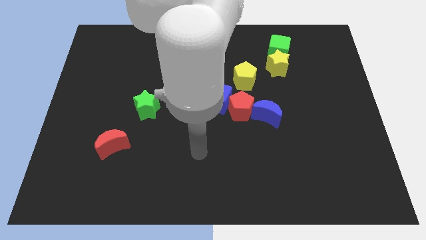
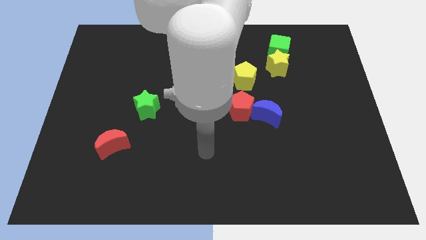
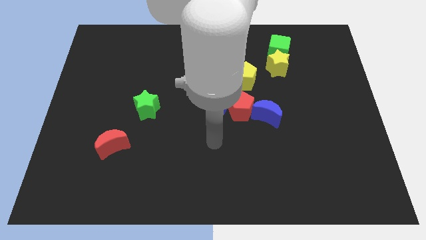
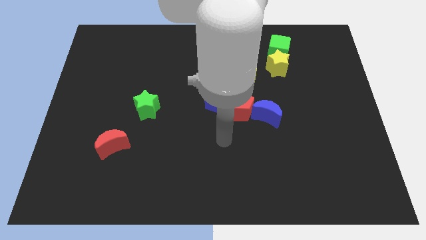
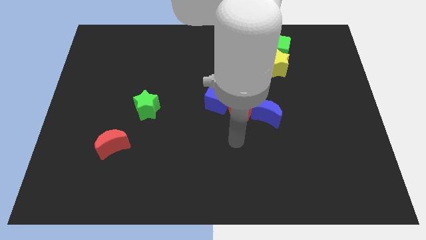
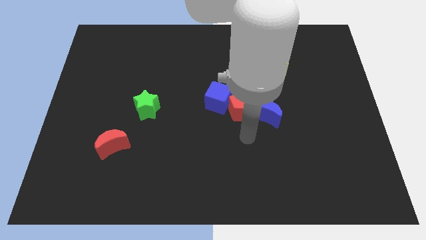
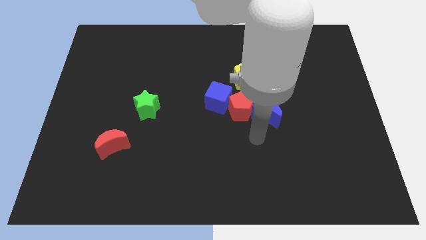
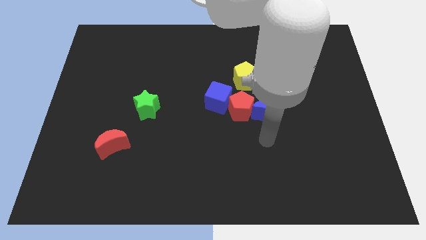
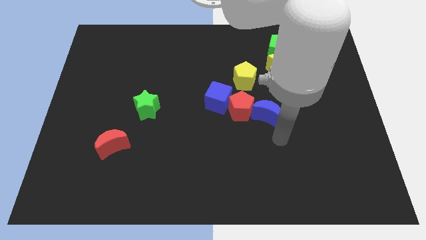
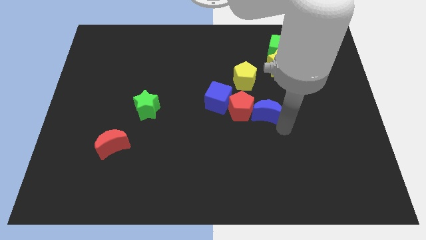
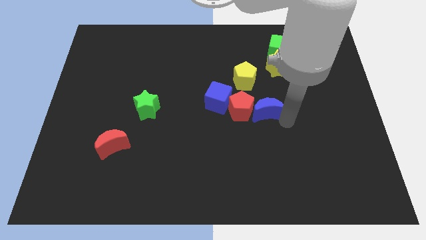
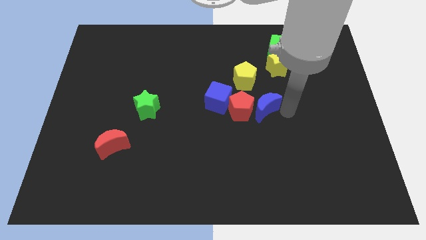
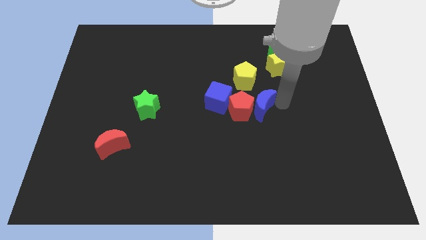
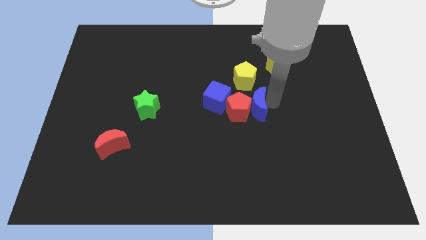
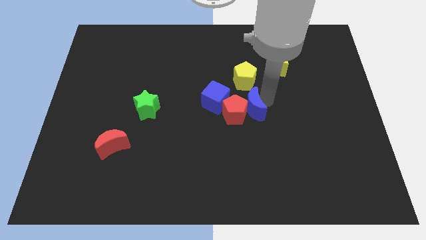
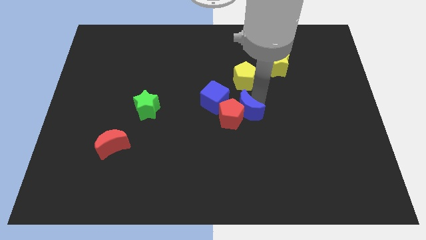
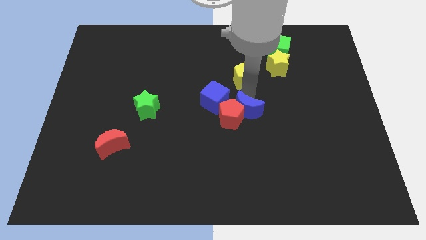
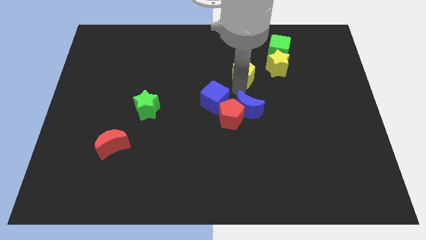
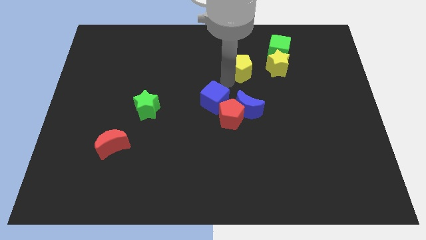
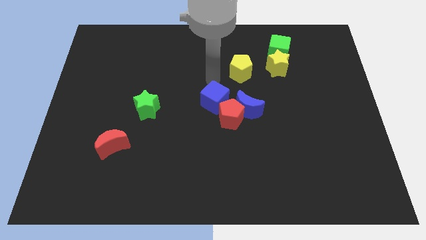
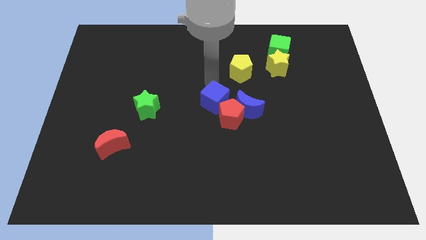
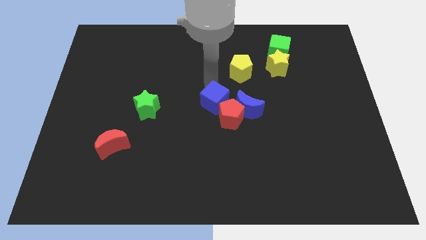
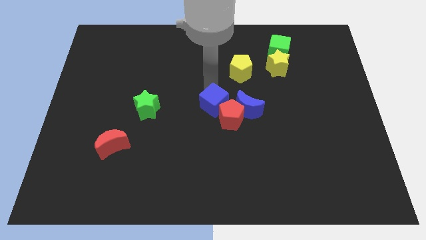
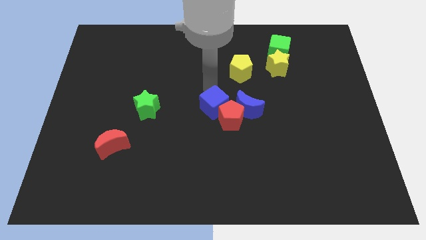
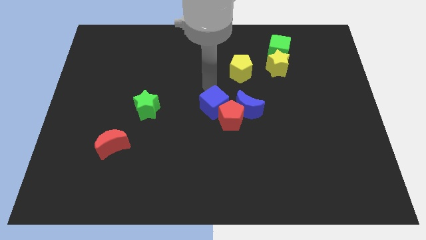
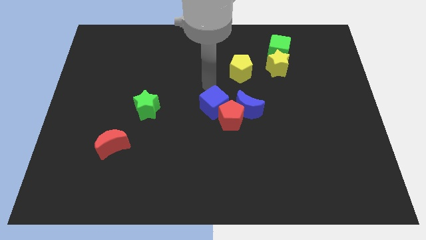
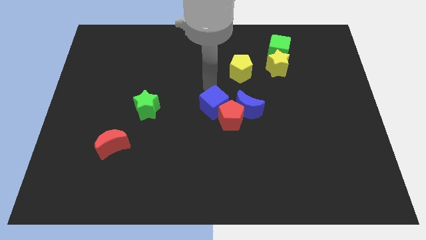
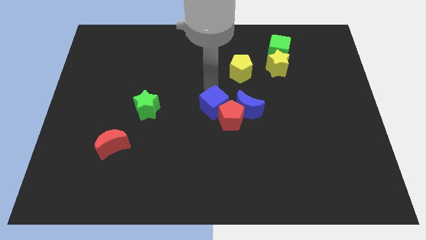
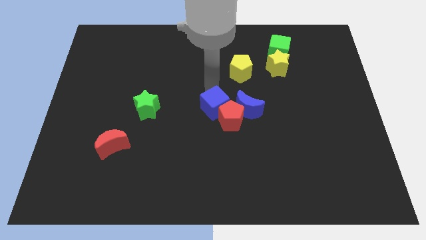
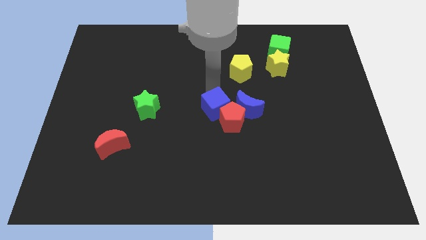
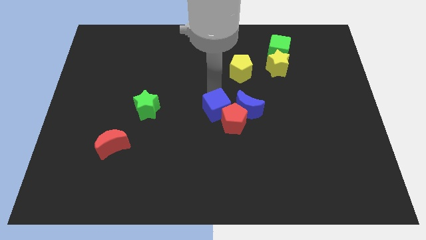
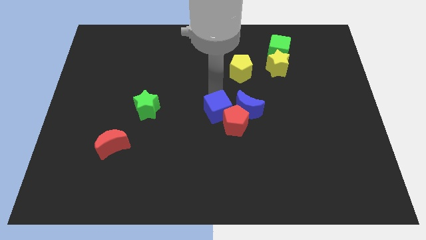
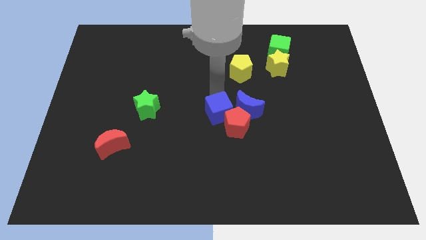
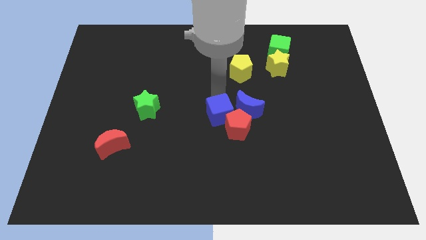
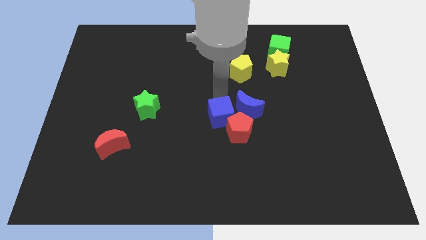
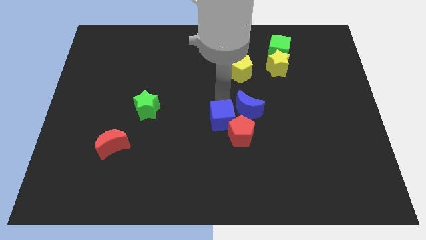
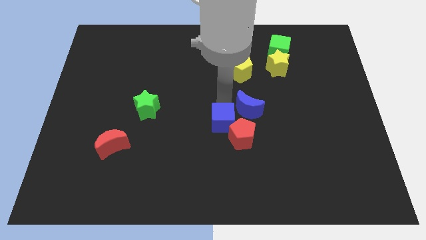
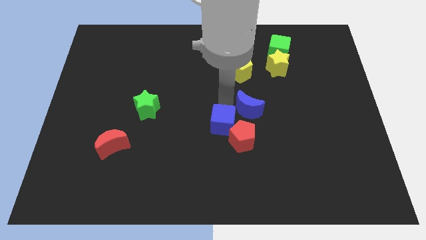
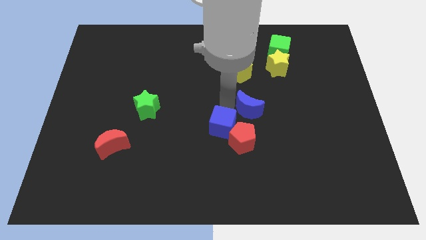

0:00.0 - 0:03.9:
move the blue cube downwards somewhat

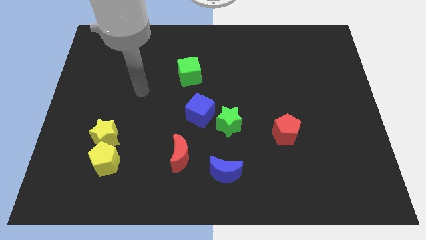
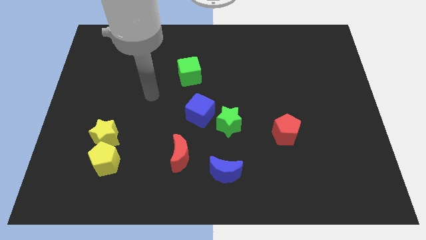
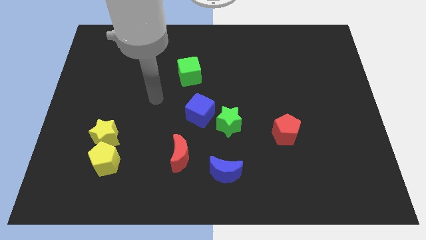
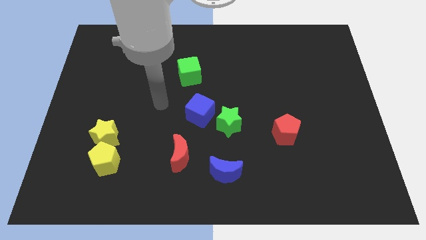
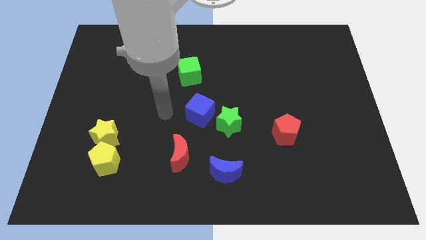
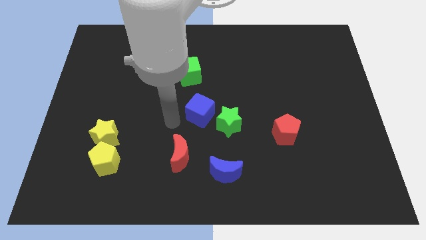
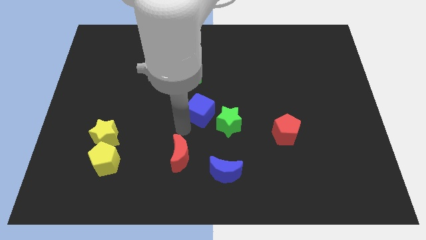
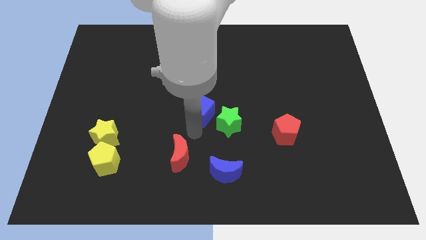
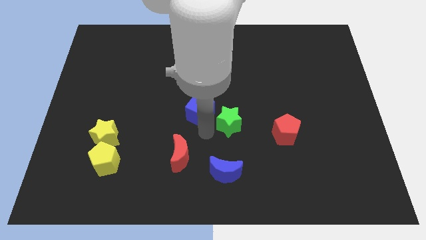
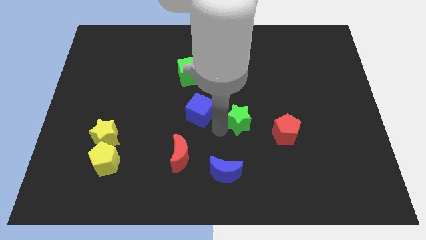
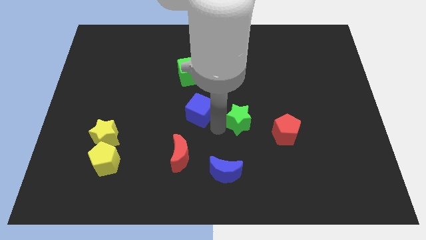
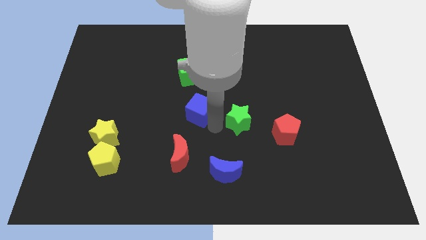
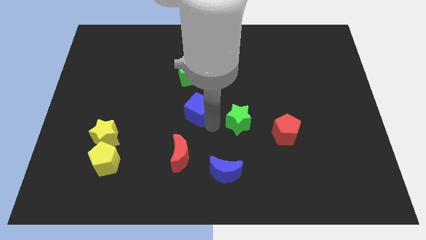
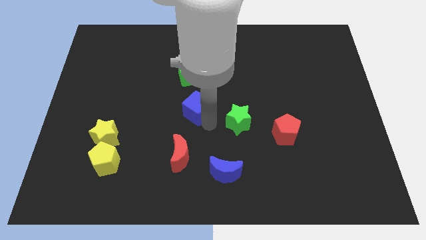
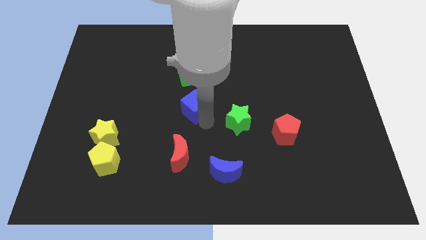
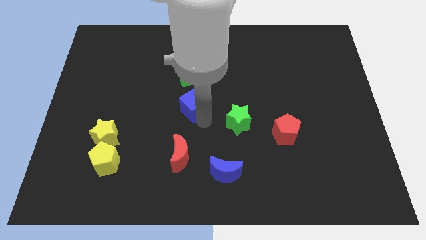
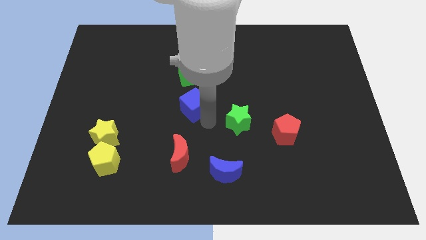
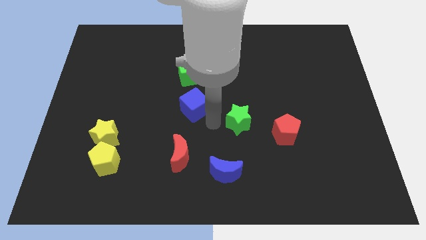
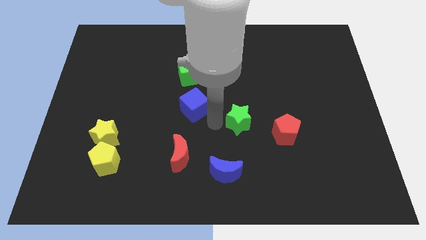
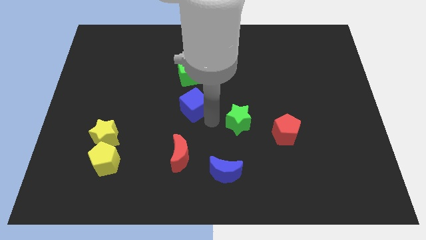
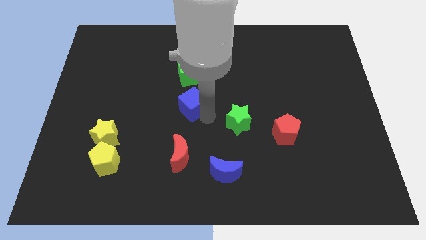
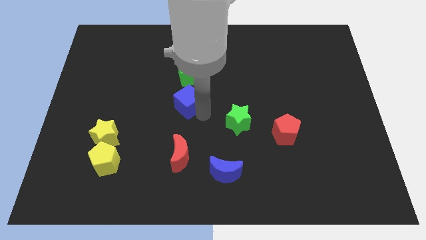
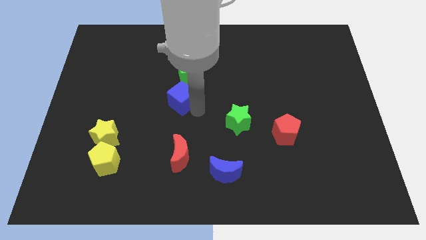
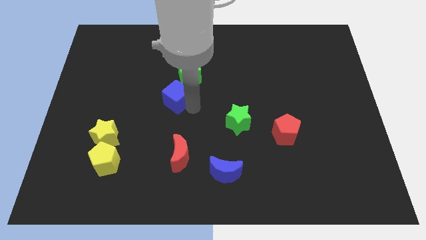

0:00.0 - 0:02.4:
slightly move the blue cube up and left

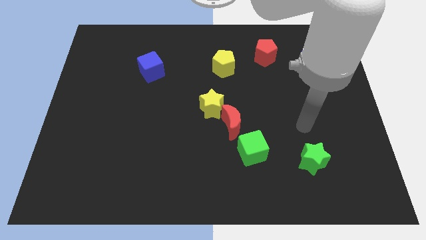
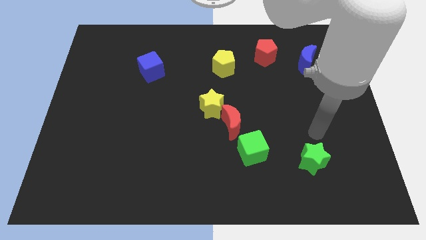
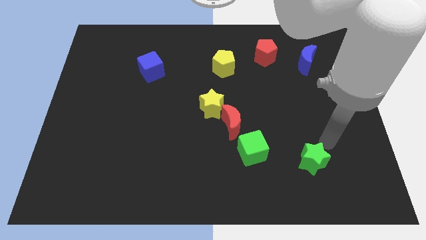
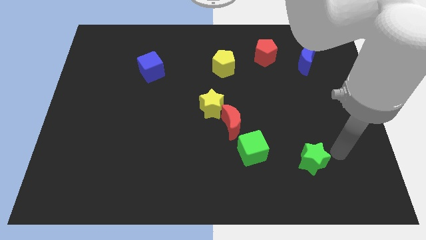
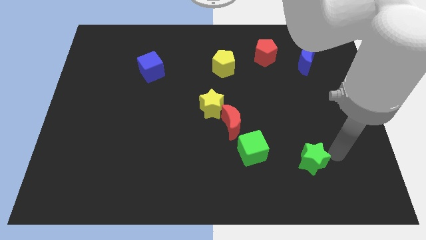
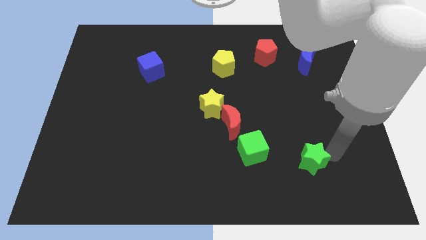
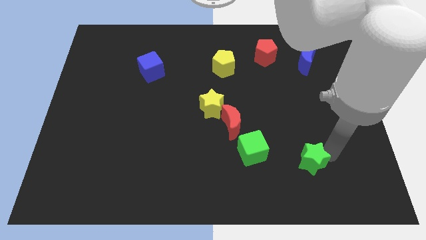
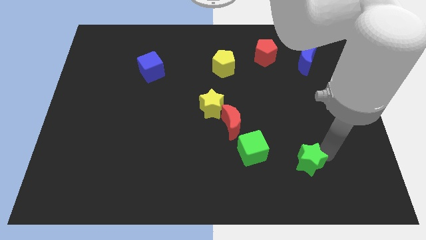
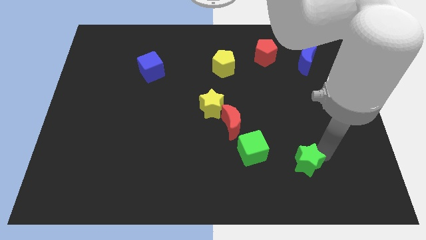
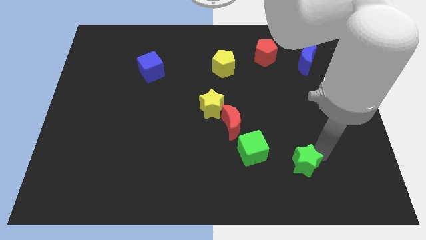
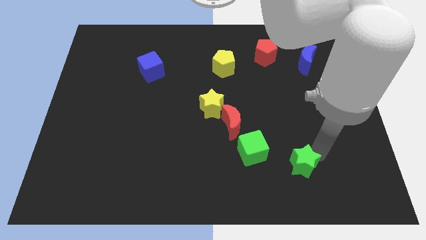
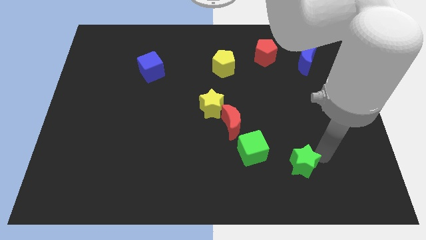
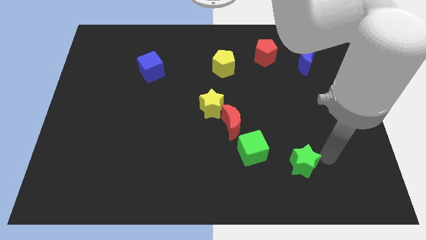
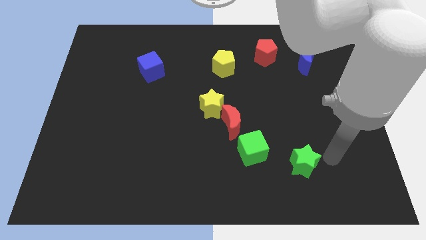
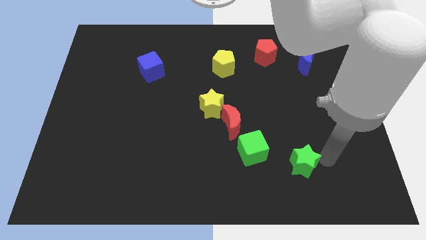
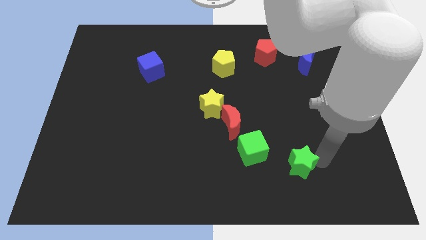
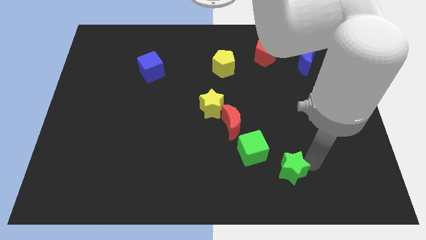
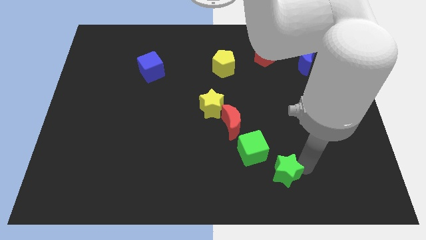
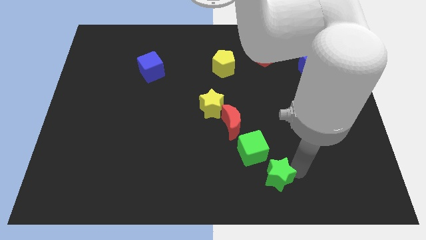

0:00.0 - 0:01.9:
slightly push the green star left

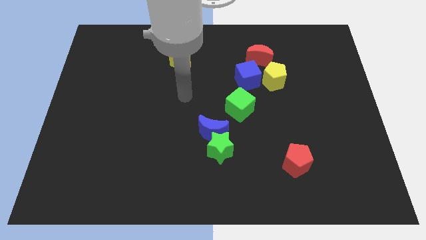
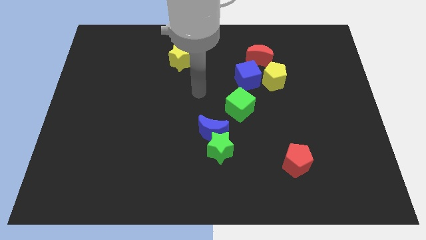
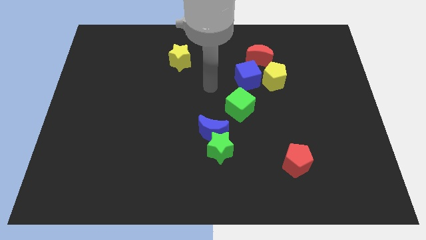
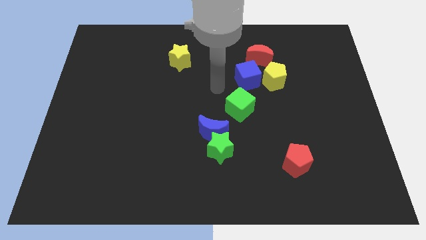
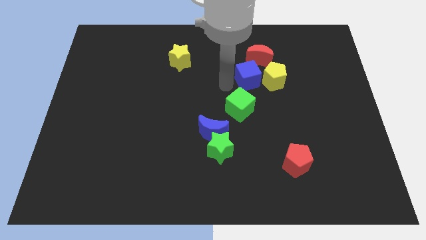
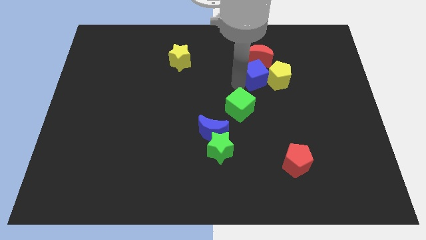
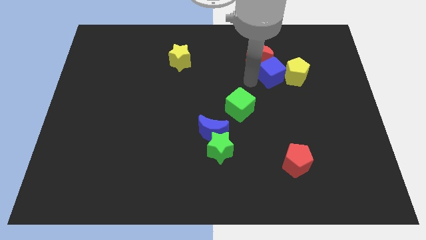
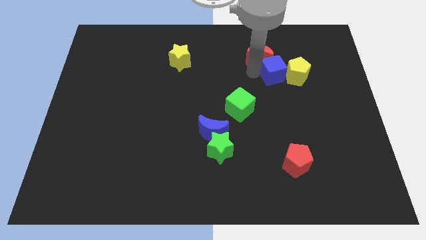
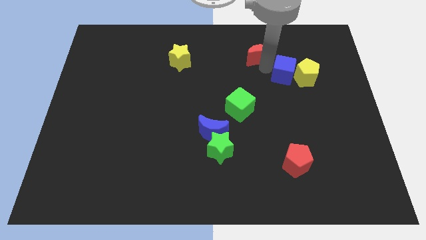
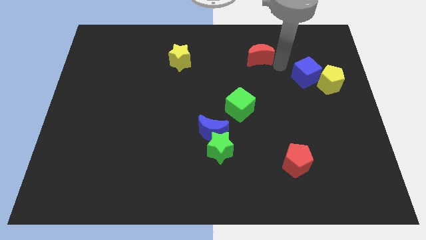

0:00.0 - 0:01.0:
slightly slide the yellow pentagon diagonally down and right
